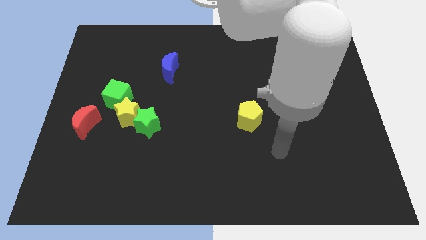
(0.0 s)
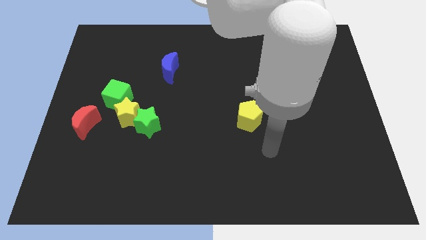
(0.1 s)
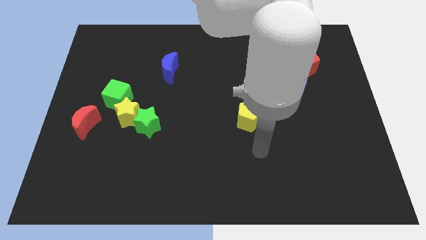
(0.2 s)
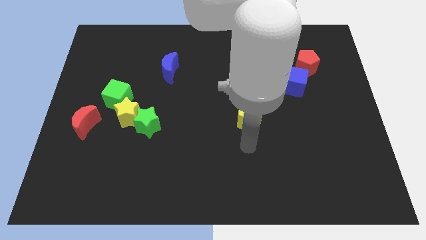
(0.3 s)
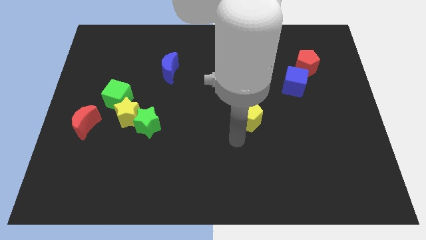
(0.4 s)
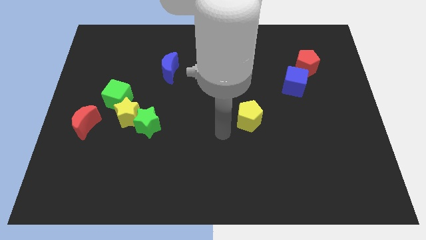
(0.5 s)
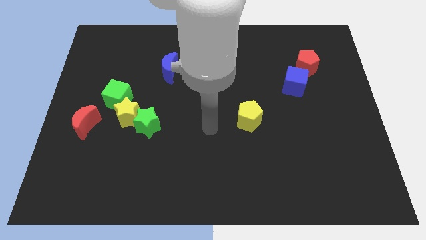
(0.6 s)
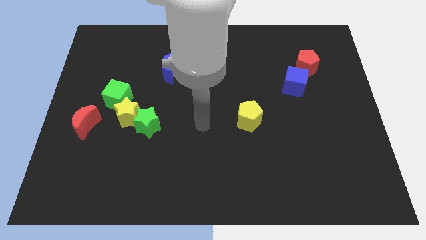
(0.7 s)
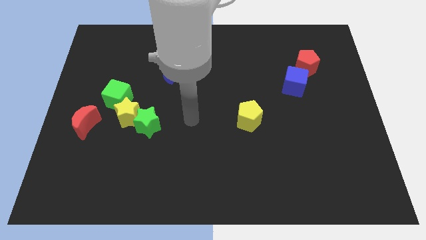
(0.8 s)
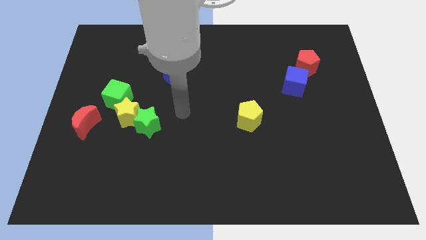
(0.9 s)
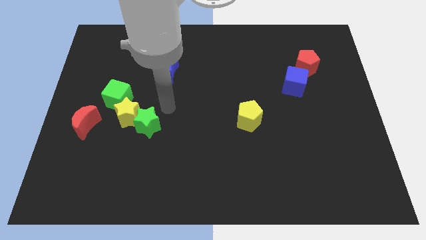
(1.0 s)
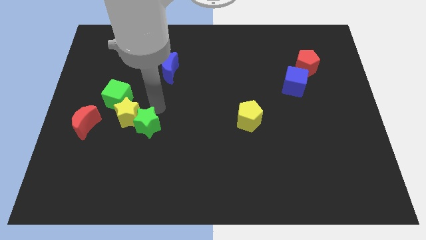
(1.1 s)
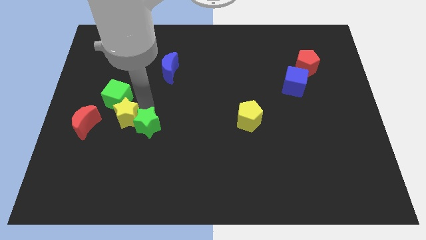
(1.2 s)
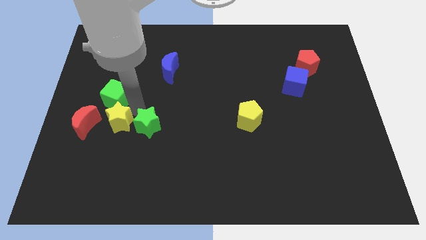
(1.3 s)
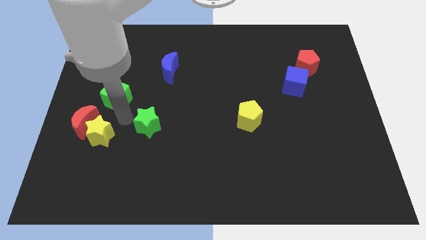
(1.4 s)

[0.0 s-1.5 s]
move the green star away from the yellow star

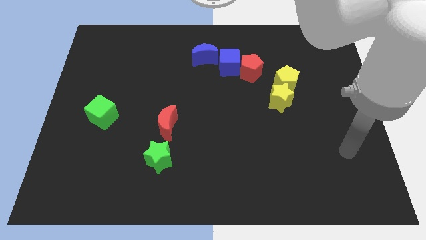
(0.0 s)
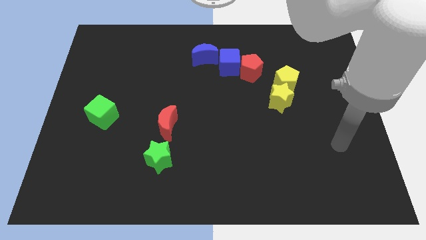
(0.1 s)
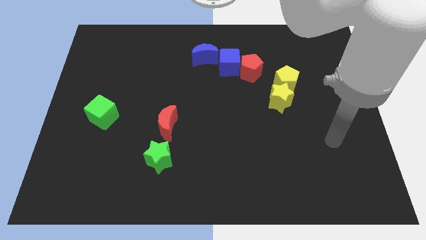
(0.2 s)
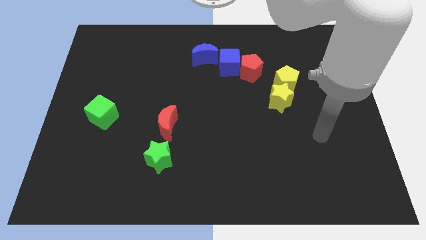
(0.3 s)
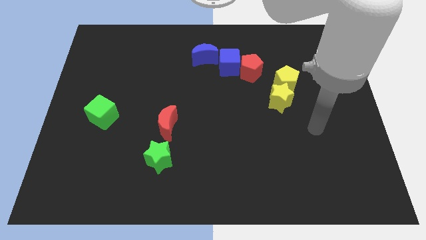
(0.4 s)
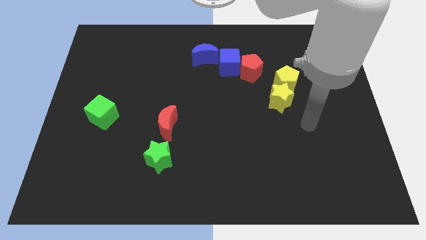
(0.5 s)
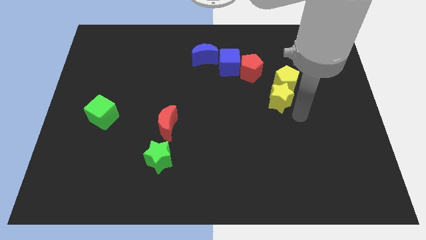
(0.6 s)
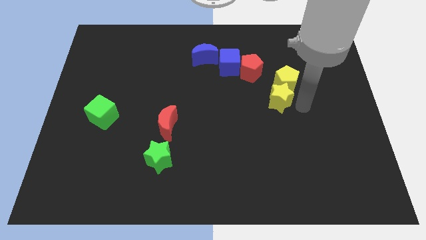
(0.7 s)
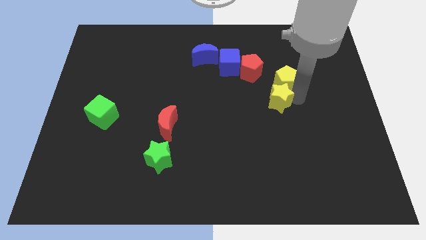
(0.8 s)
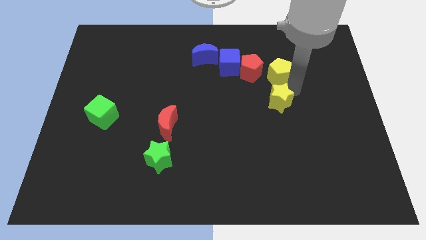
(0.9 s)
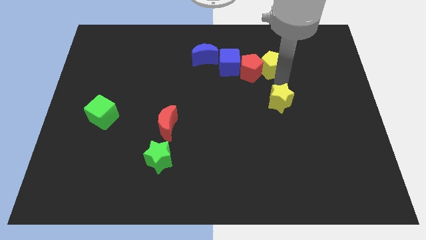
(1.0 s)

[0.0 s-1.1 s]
pull the yellow star apart from the yellow pentagon

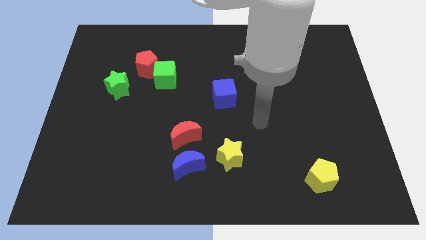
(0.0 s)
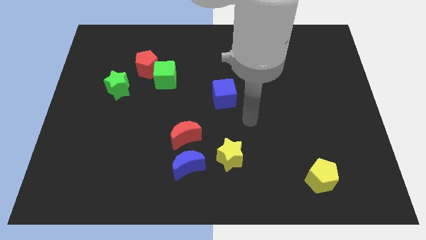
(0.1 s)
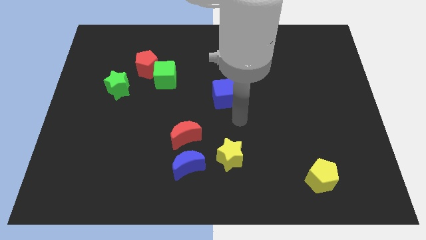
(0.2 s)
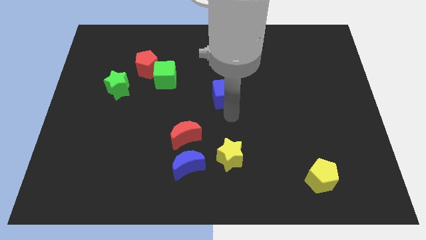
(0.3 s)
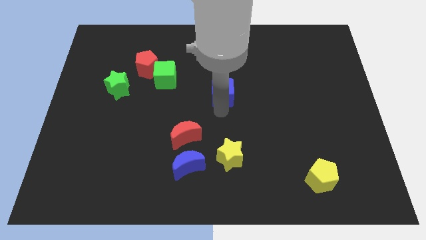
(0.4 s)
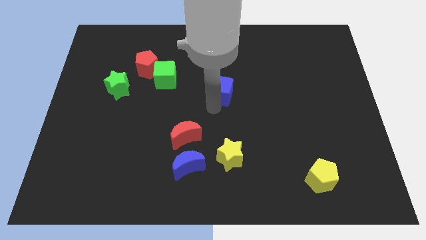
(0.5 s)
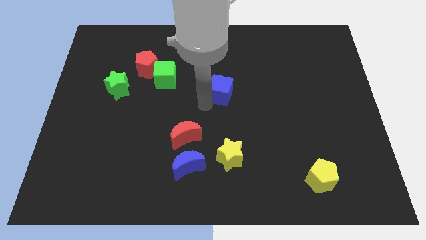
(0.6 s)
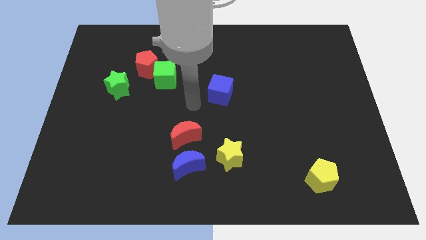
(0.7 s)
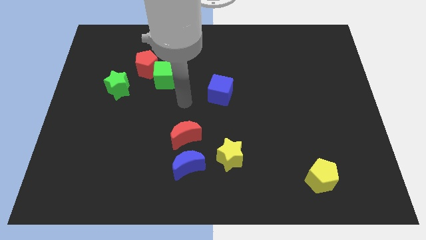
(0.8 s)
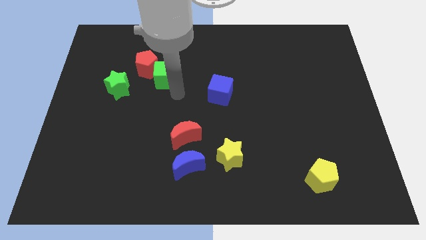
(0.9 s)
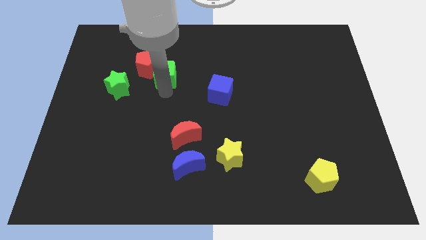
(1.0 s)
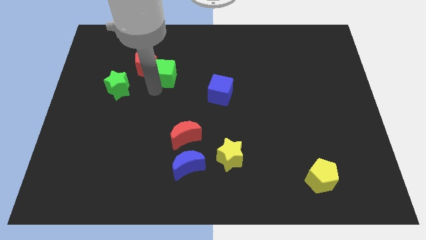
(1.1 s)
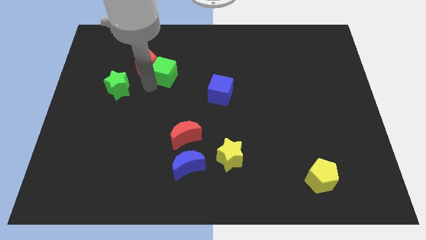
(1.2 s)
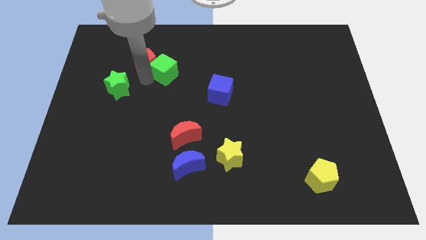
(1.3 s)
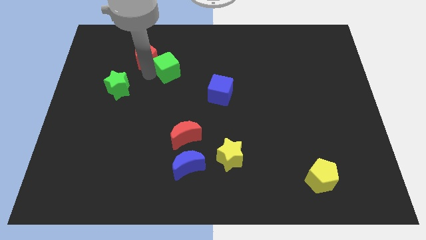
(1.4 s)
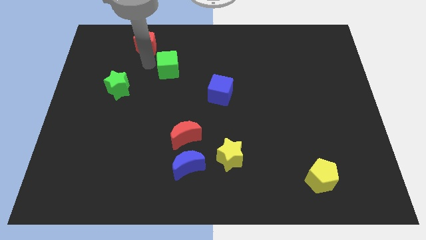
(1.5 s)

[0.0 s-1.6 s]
separate the green cube from the red pentagon

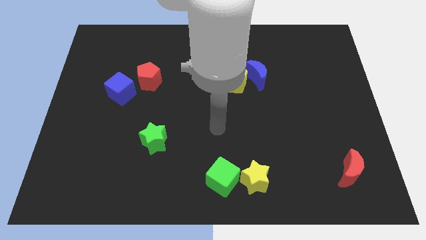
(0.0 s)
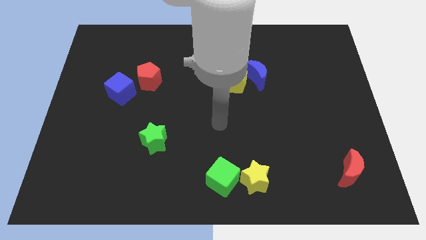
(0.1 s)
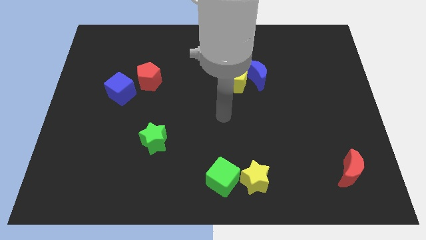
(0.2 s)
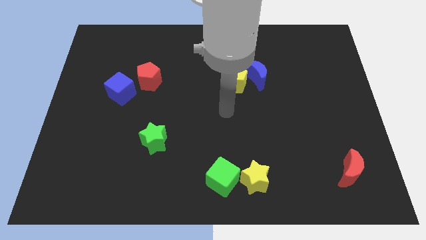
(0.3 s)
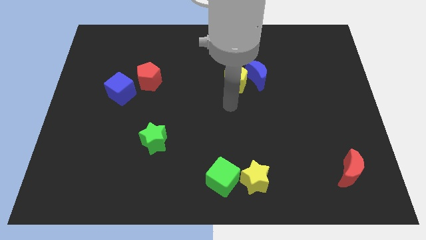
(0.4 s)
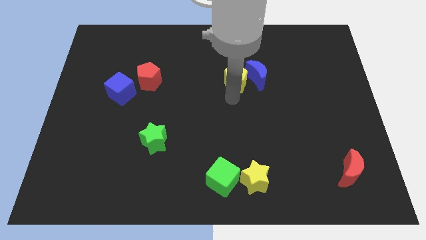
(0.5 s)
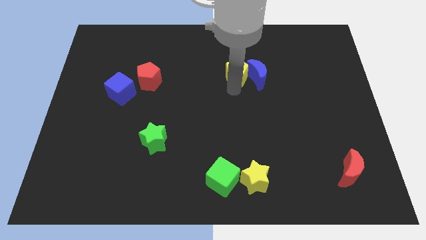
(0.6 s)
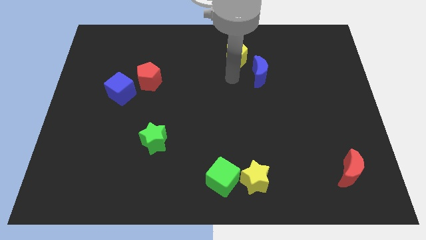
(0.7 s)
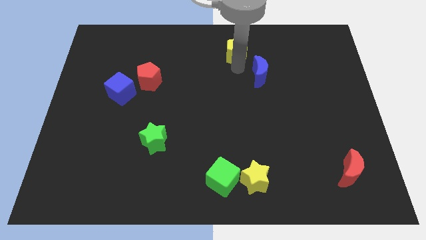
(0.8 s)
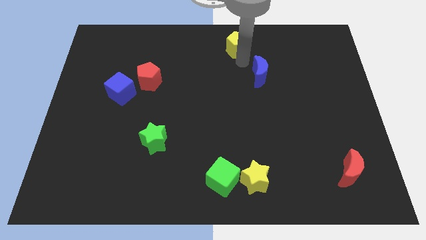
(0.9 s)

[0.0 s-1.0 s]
pull the blue moon apart from the yellow pentagon

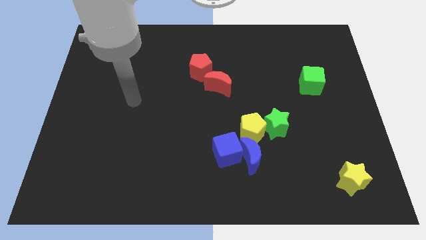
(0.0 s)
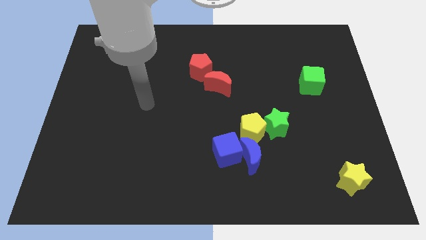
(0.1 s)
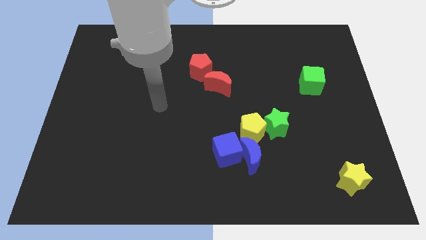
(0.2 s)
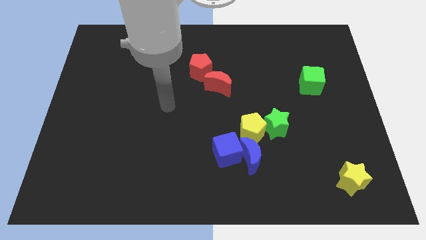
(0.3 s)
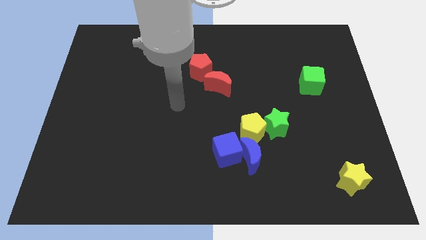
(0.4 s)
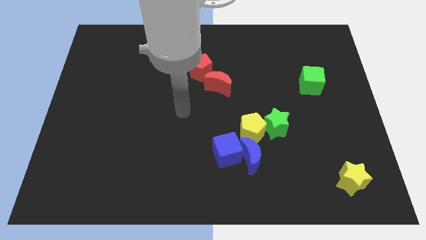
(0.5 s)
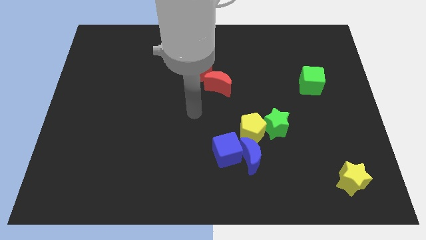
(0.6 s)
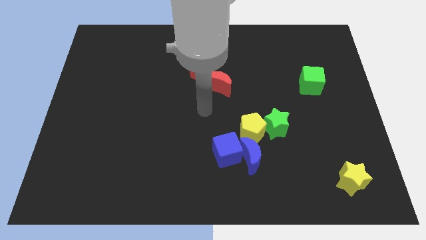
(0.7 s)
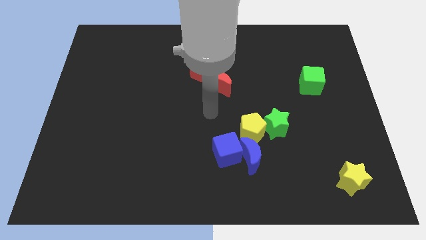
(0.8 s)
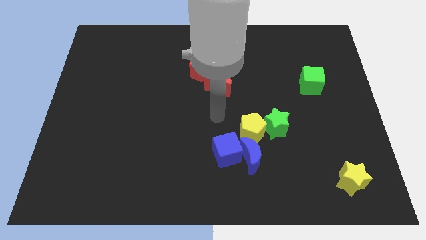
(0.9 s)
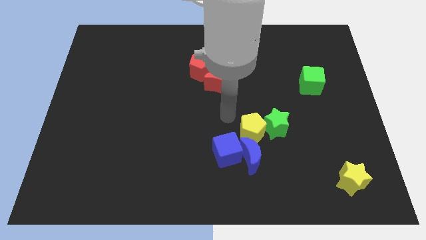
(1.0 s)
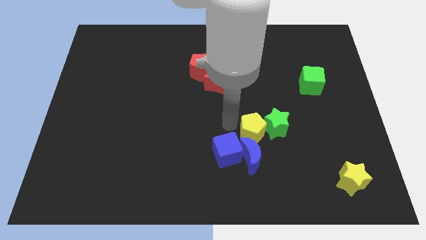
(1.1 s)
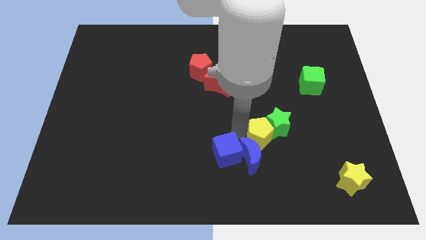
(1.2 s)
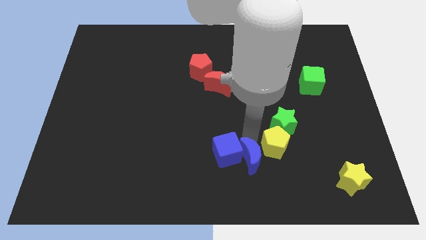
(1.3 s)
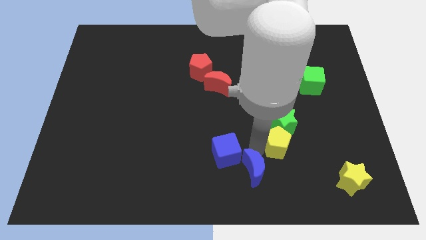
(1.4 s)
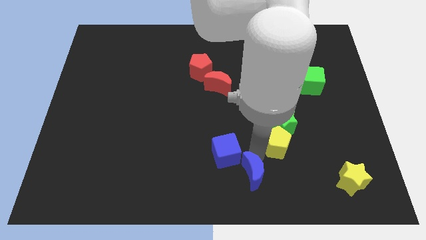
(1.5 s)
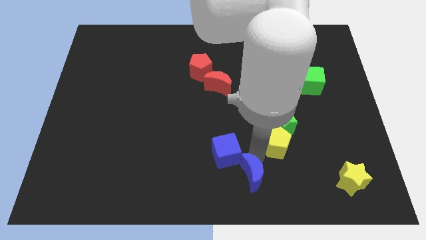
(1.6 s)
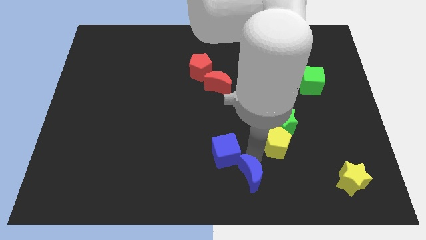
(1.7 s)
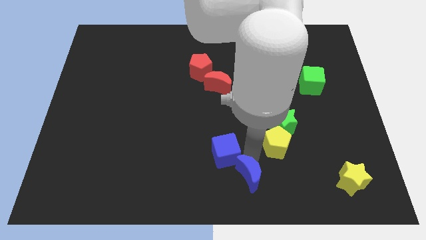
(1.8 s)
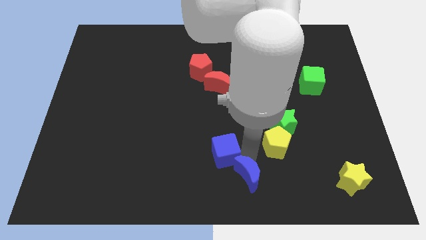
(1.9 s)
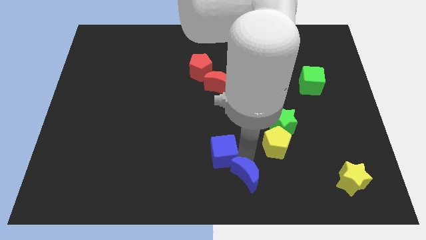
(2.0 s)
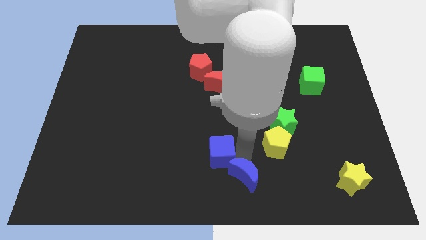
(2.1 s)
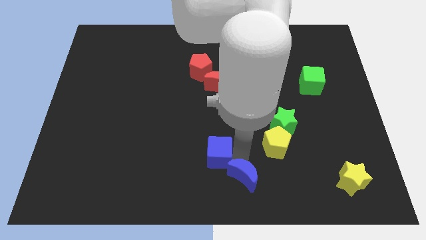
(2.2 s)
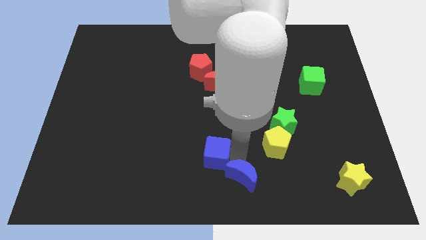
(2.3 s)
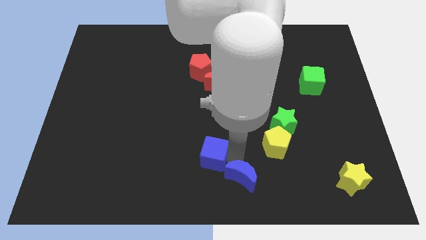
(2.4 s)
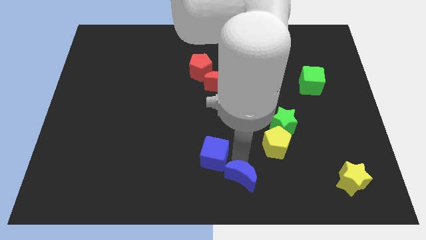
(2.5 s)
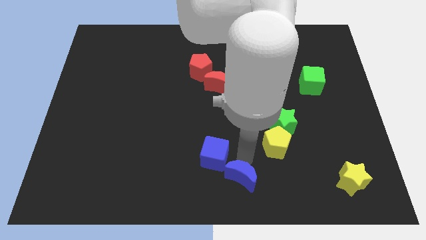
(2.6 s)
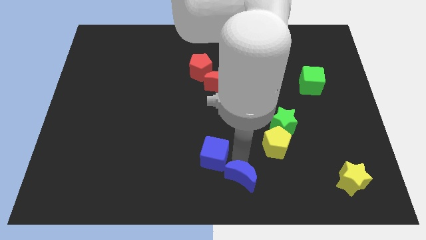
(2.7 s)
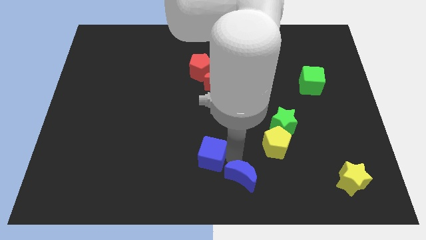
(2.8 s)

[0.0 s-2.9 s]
move the blue cube away from the blue moon and yellow pentagon

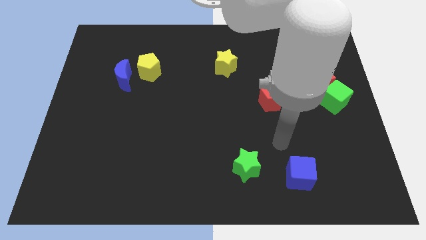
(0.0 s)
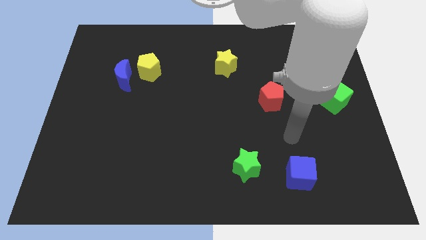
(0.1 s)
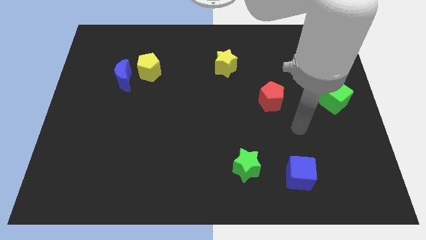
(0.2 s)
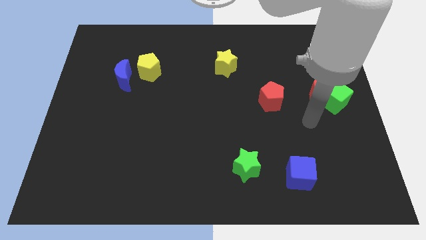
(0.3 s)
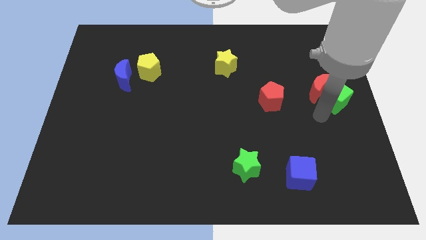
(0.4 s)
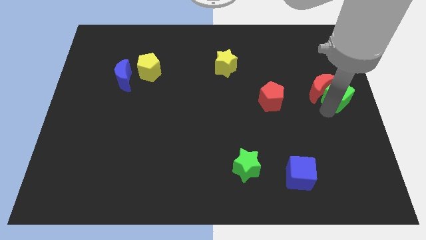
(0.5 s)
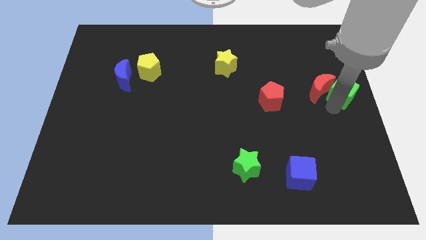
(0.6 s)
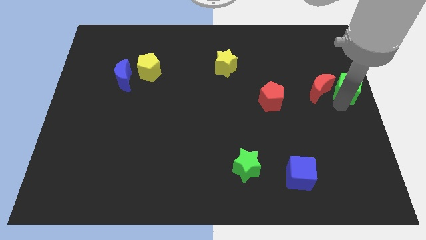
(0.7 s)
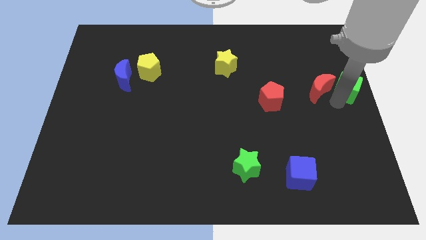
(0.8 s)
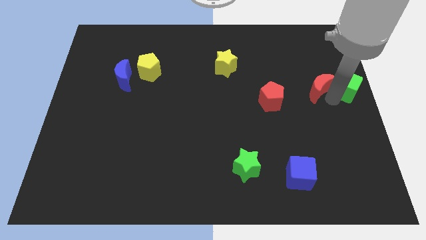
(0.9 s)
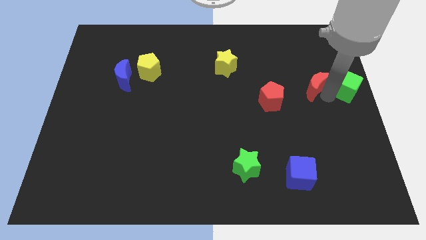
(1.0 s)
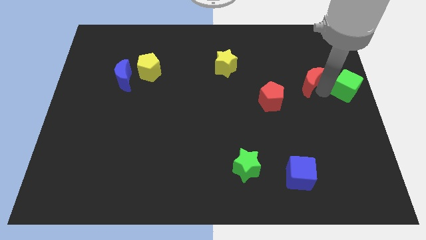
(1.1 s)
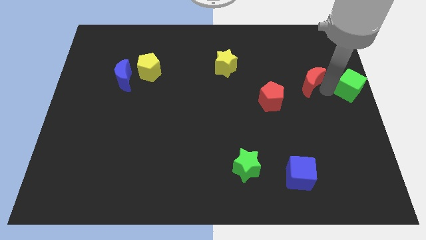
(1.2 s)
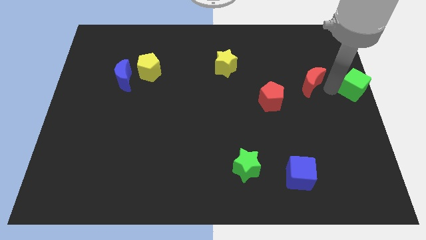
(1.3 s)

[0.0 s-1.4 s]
move the red moon away from the green cube
